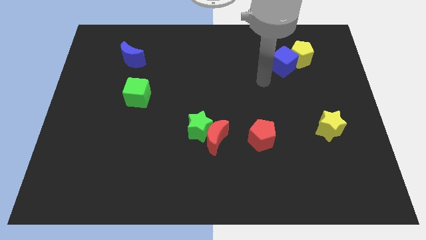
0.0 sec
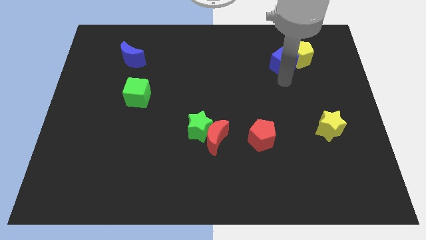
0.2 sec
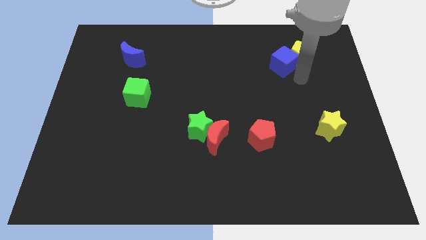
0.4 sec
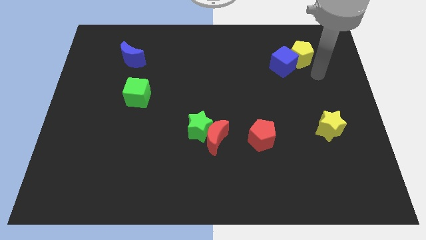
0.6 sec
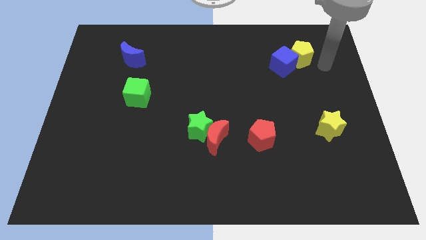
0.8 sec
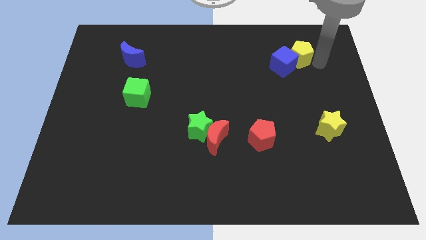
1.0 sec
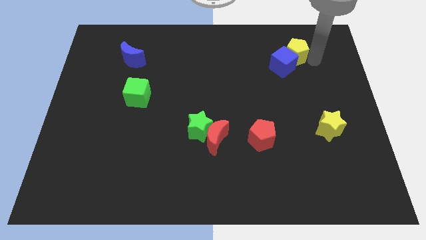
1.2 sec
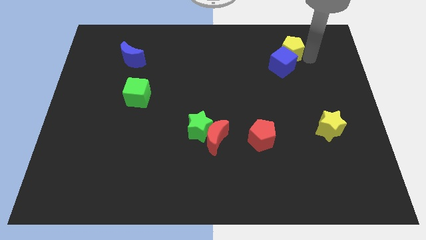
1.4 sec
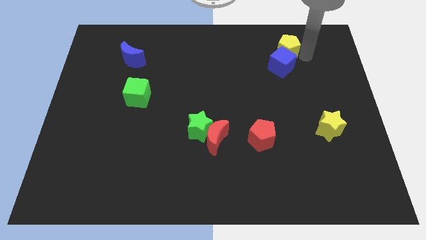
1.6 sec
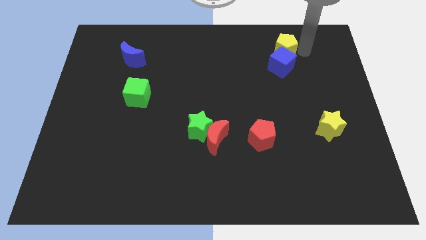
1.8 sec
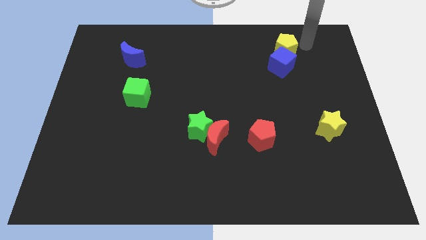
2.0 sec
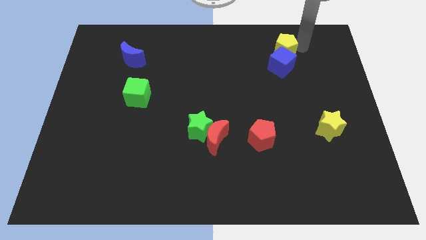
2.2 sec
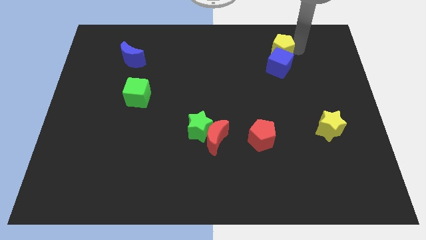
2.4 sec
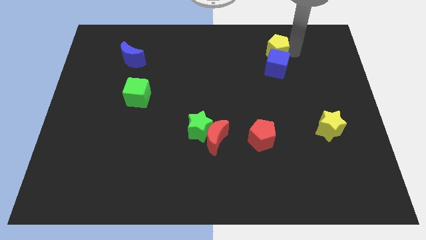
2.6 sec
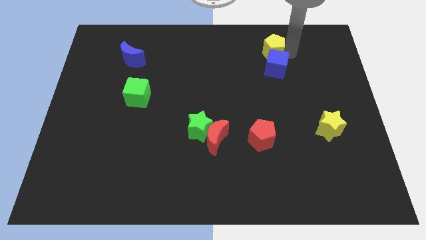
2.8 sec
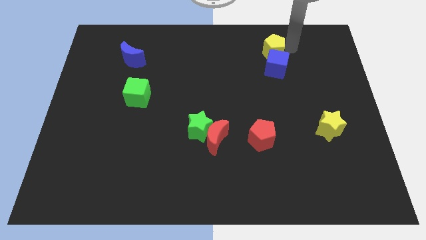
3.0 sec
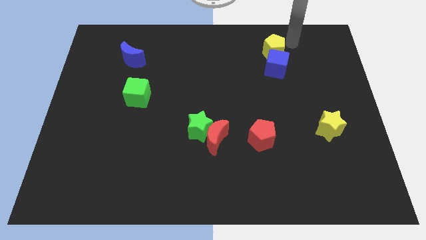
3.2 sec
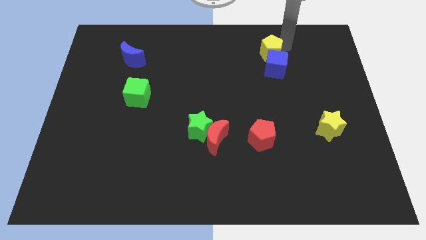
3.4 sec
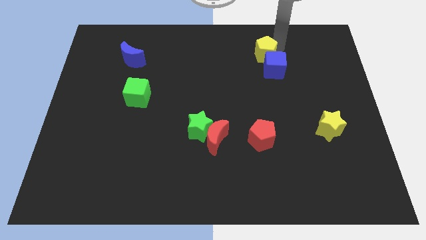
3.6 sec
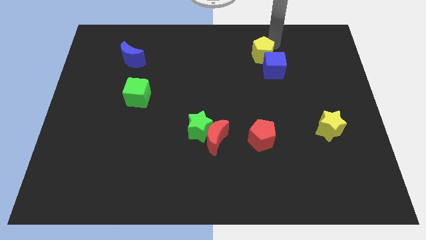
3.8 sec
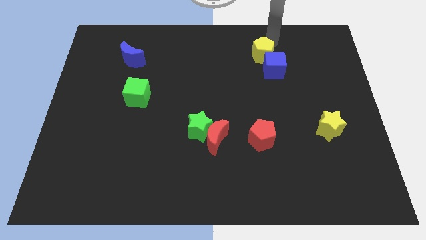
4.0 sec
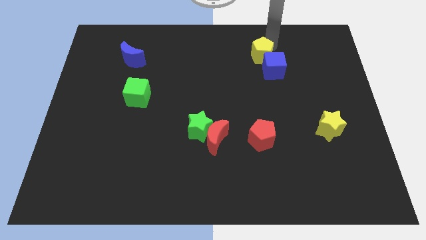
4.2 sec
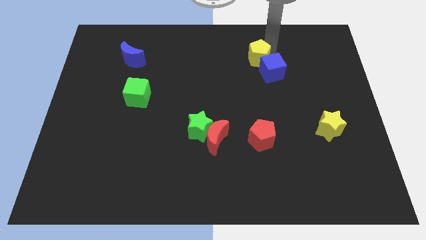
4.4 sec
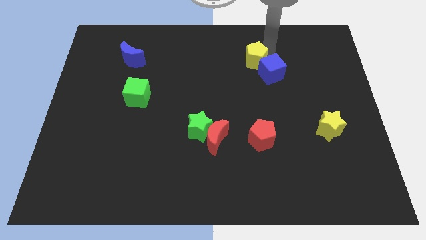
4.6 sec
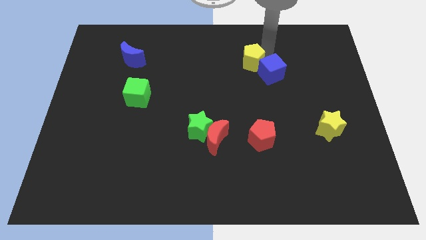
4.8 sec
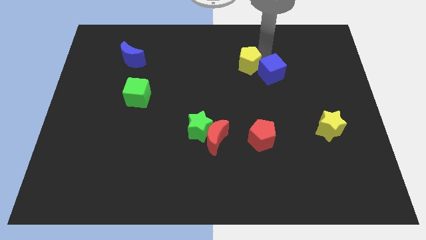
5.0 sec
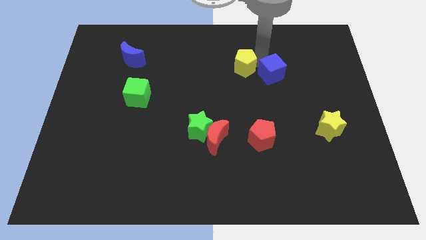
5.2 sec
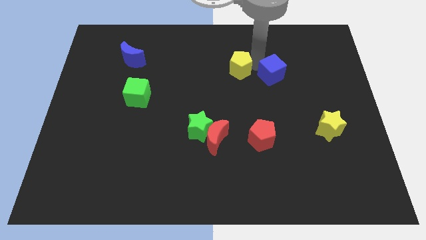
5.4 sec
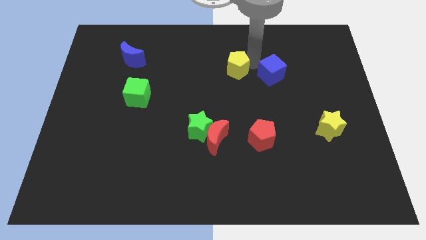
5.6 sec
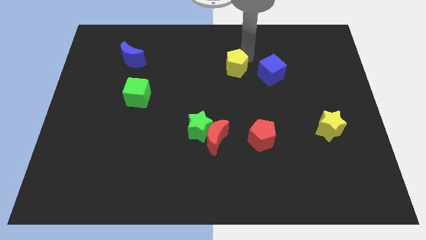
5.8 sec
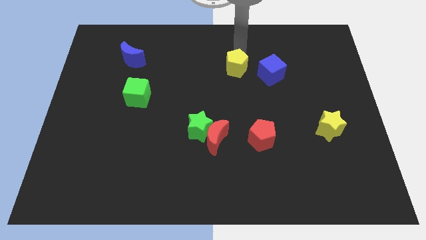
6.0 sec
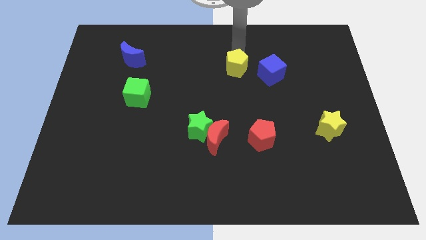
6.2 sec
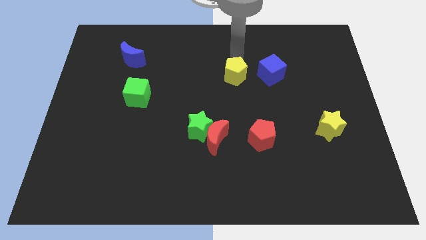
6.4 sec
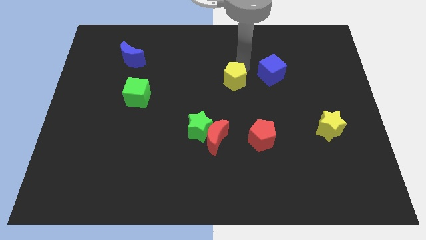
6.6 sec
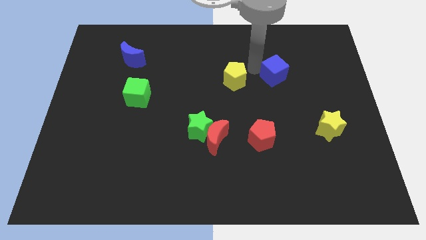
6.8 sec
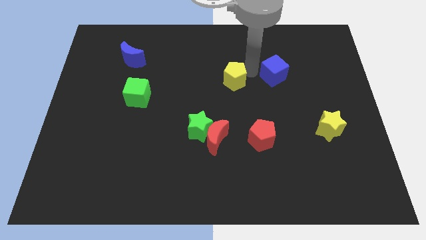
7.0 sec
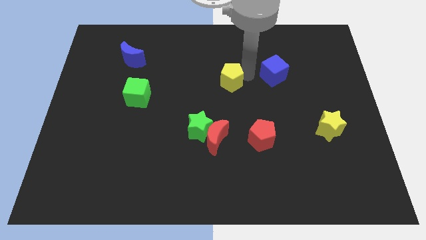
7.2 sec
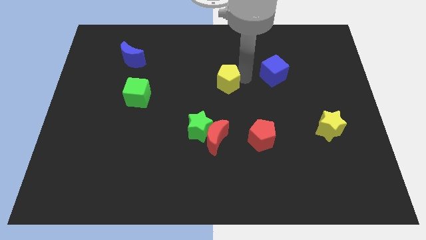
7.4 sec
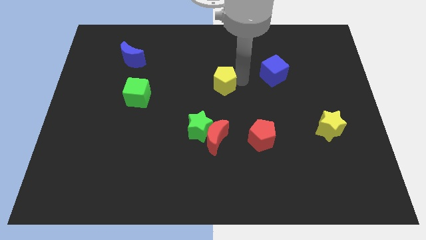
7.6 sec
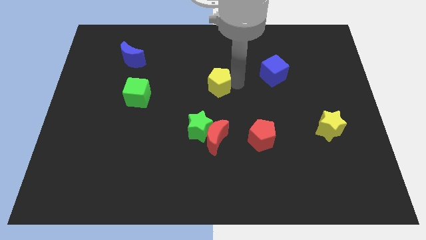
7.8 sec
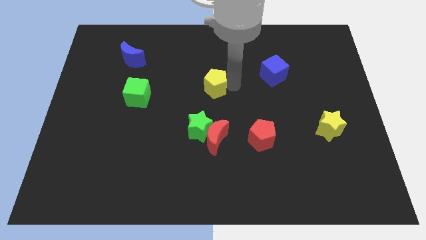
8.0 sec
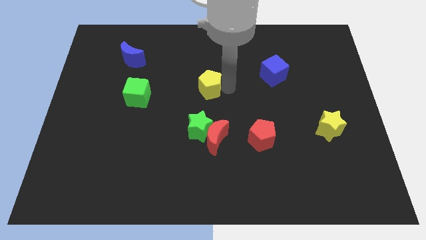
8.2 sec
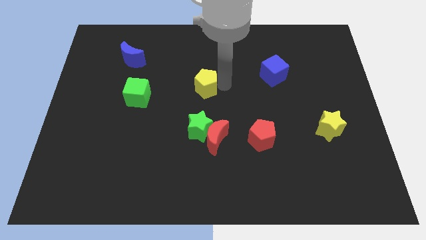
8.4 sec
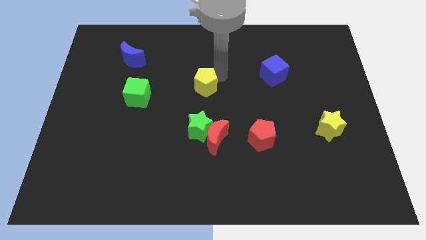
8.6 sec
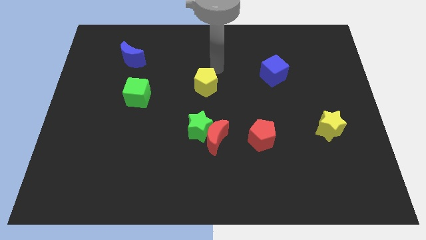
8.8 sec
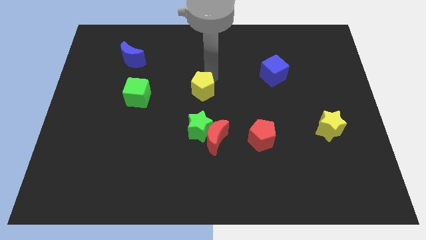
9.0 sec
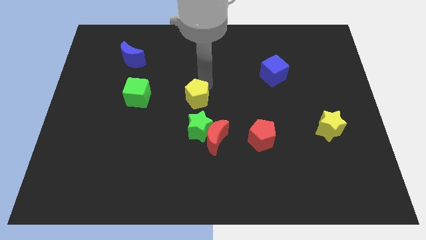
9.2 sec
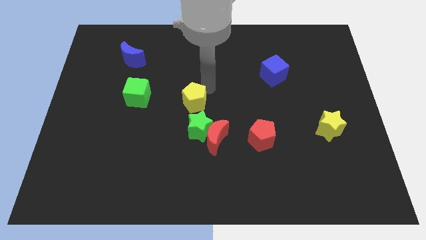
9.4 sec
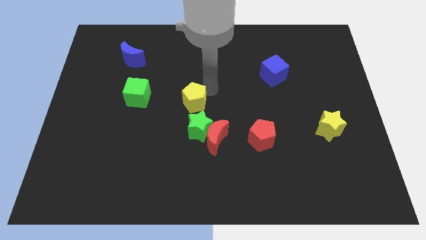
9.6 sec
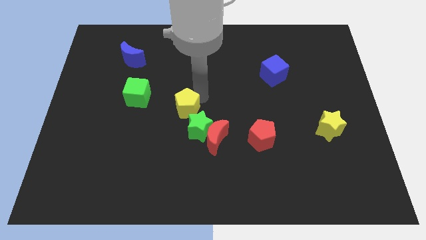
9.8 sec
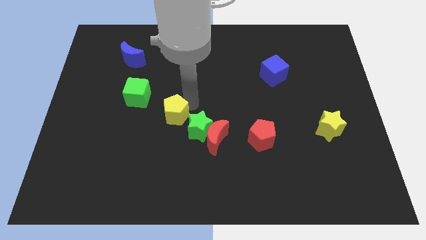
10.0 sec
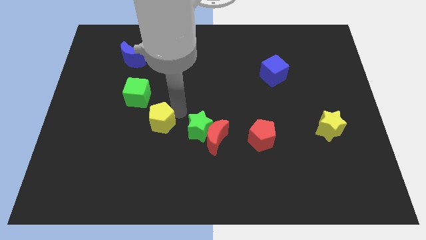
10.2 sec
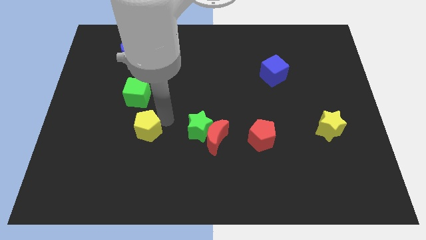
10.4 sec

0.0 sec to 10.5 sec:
push the yellow pentagon to the bottom of the green cube

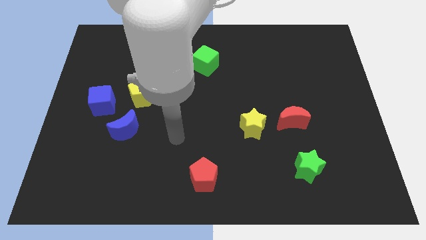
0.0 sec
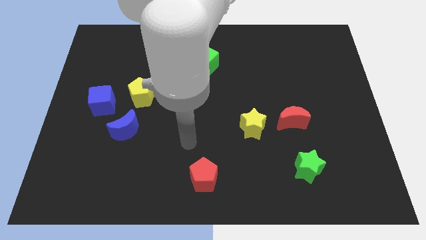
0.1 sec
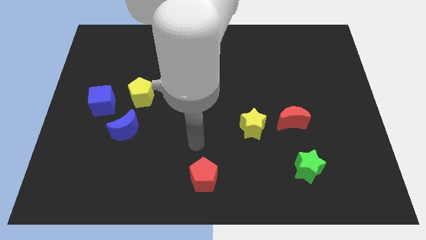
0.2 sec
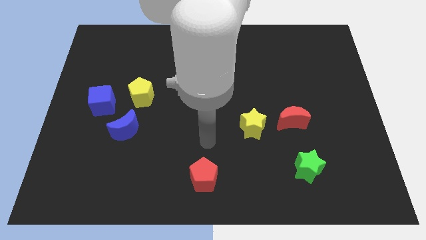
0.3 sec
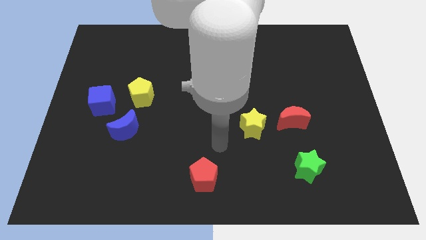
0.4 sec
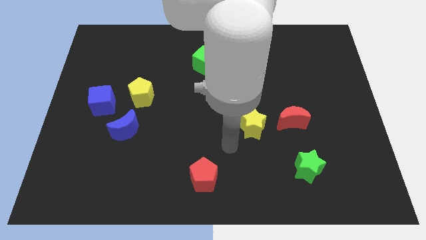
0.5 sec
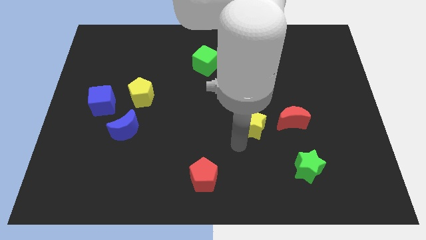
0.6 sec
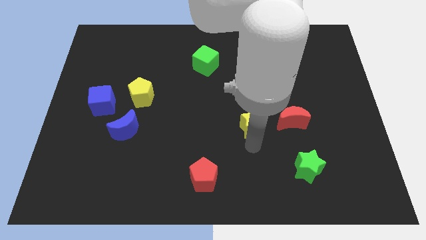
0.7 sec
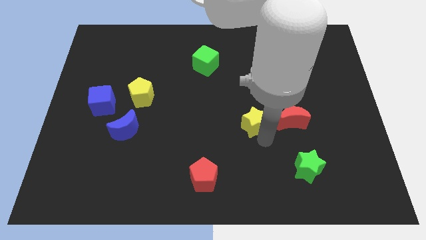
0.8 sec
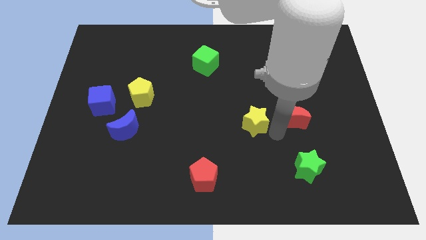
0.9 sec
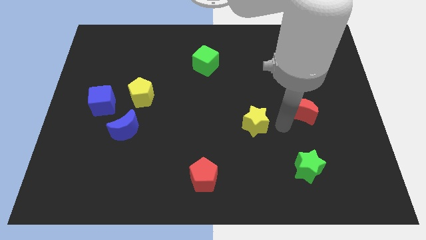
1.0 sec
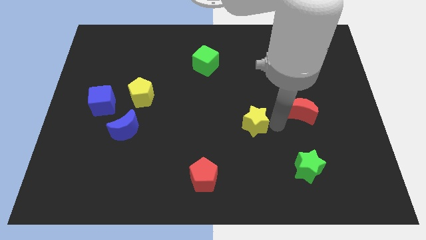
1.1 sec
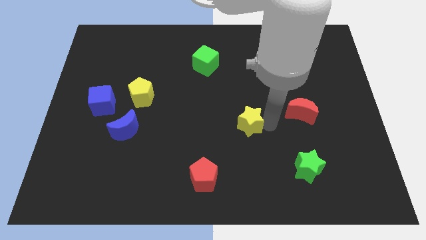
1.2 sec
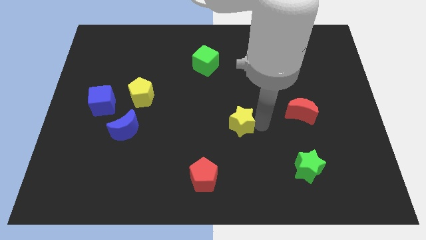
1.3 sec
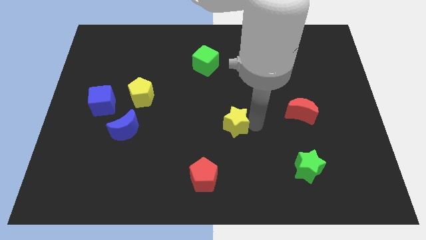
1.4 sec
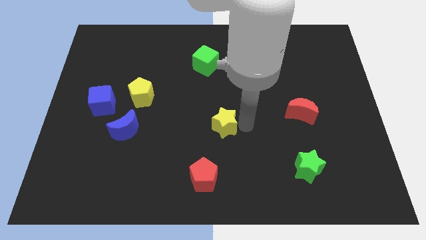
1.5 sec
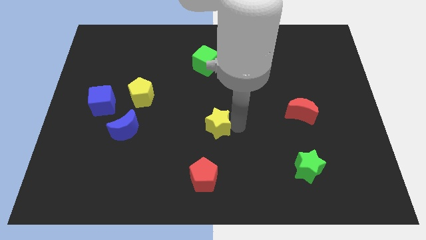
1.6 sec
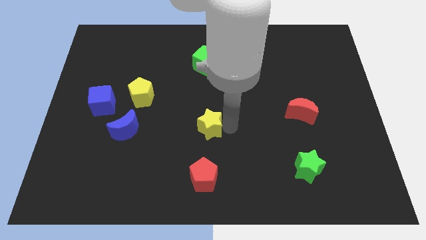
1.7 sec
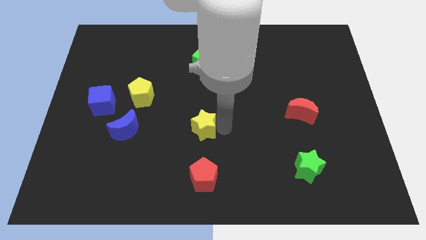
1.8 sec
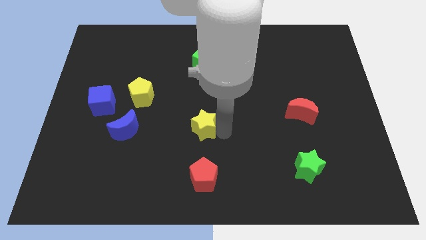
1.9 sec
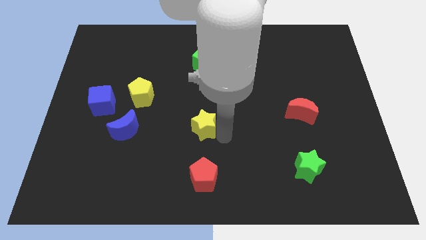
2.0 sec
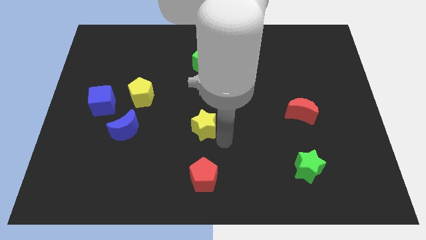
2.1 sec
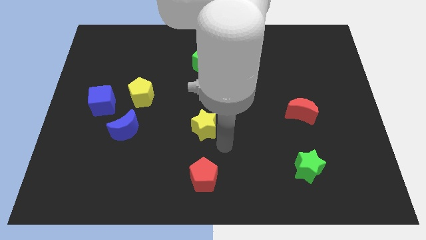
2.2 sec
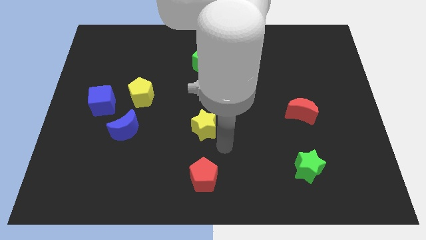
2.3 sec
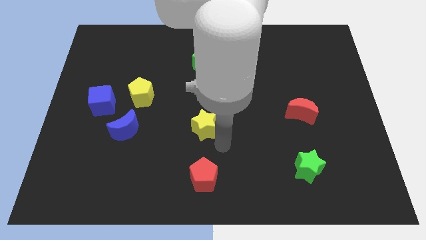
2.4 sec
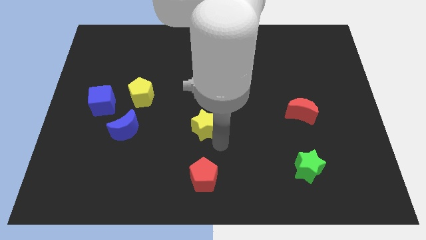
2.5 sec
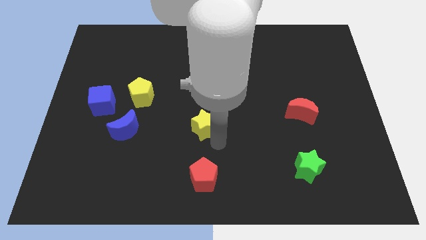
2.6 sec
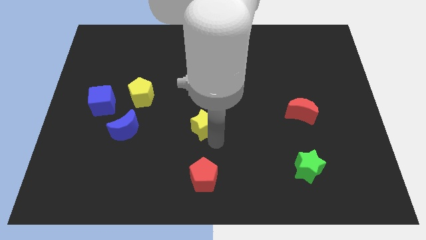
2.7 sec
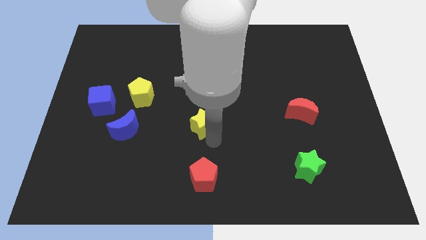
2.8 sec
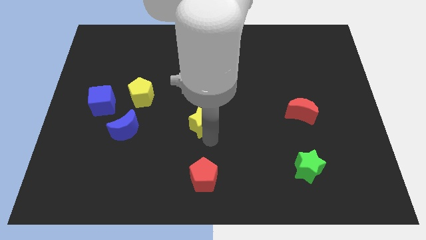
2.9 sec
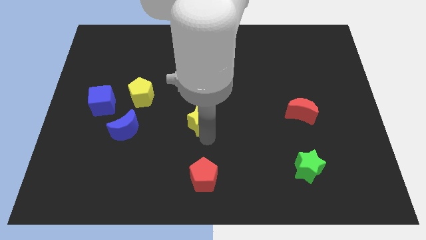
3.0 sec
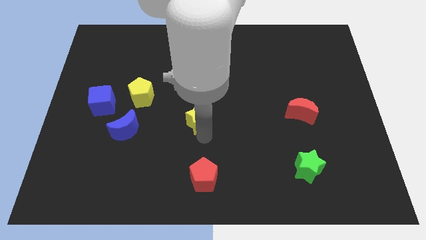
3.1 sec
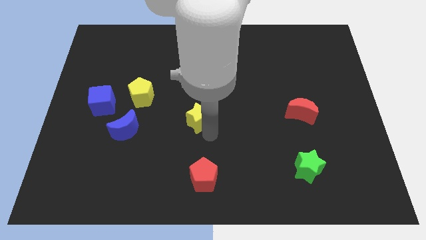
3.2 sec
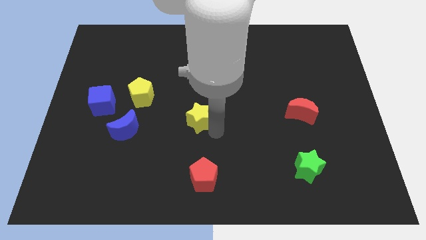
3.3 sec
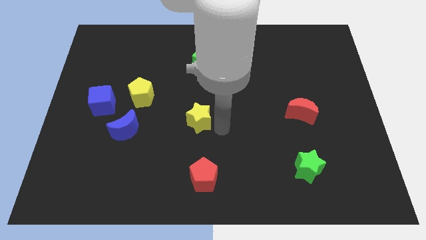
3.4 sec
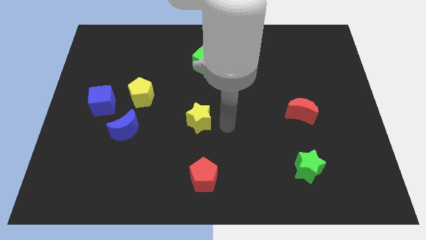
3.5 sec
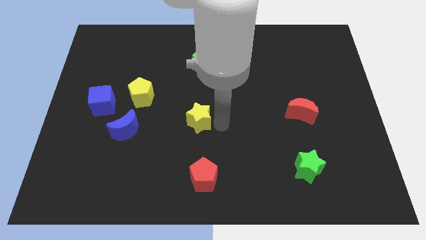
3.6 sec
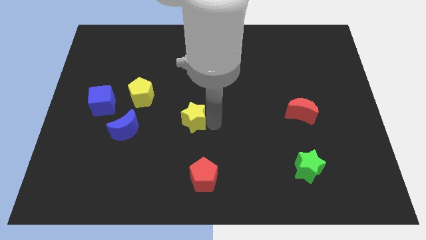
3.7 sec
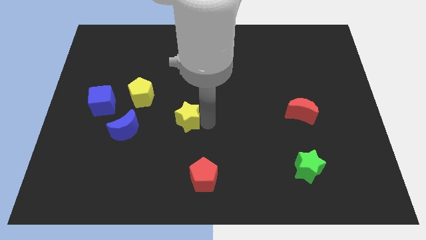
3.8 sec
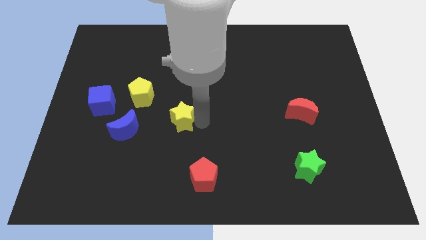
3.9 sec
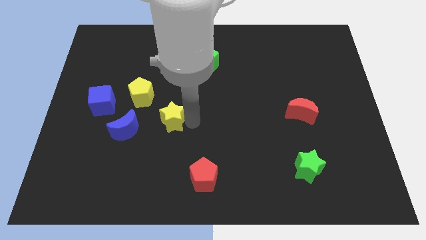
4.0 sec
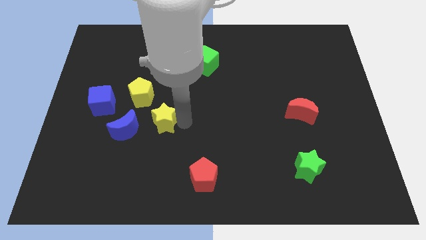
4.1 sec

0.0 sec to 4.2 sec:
push the yellow star diagonally up and to the right of the blue moon
